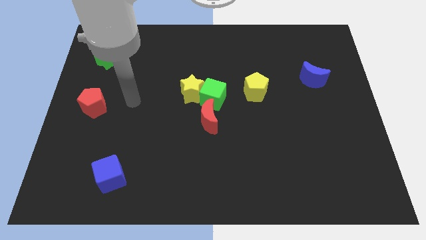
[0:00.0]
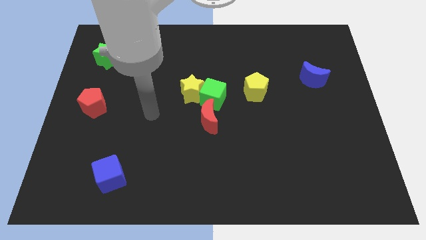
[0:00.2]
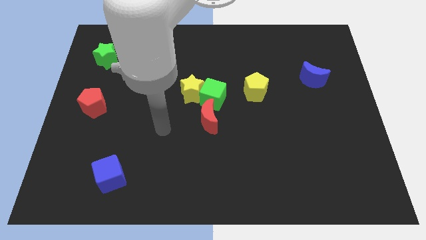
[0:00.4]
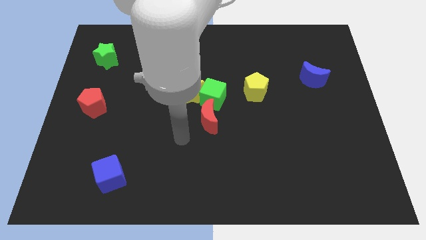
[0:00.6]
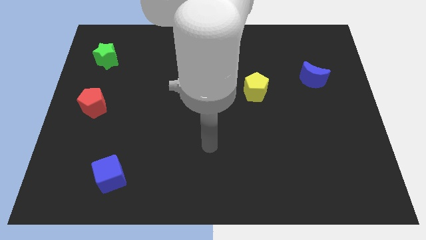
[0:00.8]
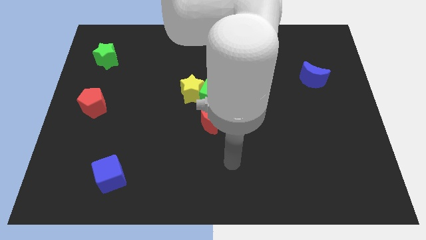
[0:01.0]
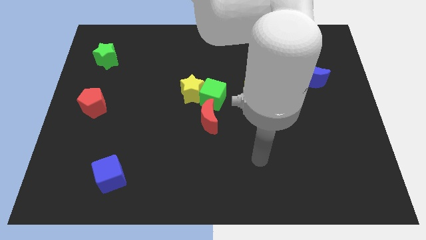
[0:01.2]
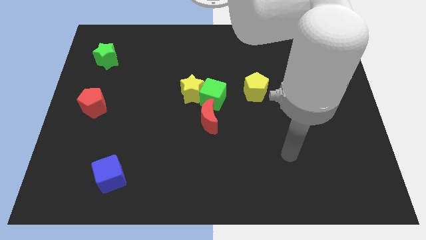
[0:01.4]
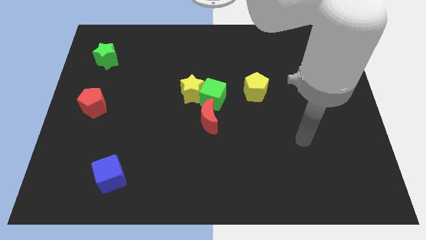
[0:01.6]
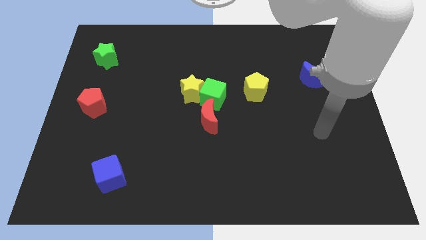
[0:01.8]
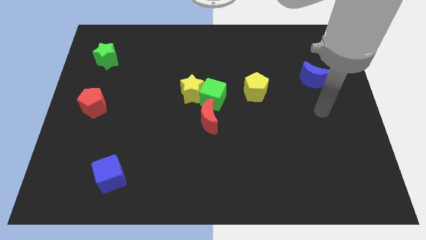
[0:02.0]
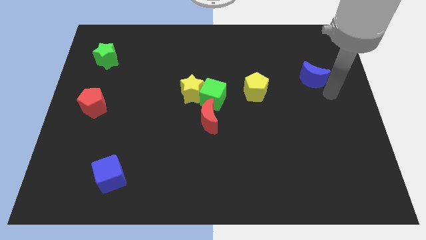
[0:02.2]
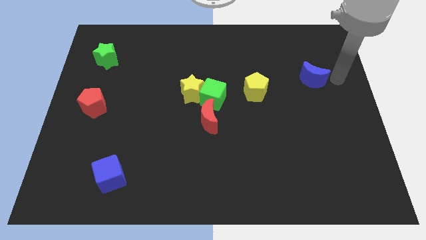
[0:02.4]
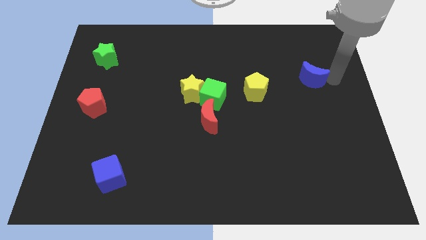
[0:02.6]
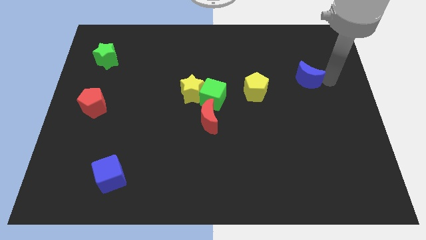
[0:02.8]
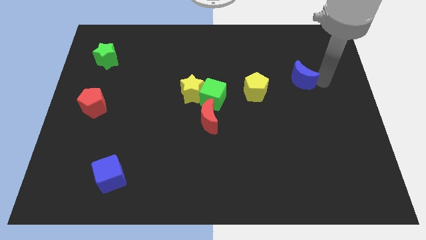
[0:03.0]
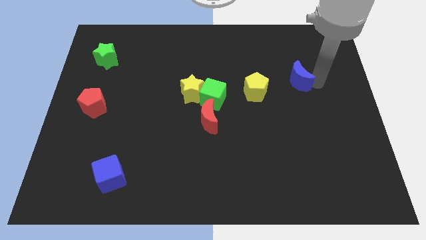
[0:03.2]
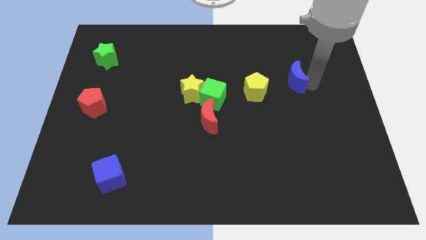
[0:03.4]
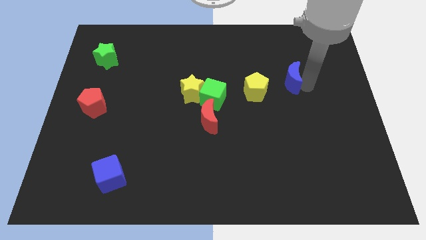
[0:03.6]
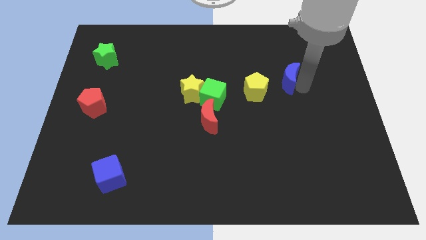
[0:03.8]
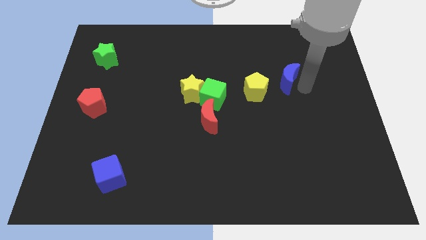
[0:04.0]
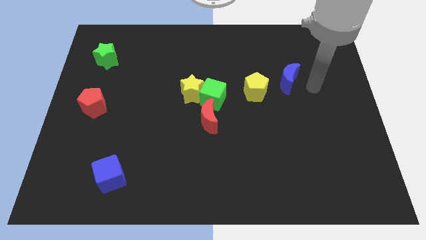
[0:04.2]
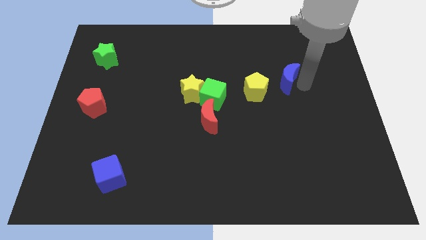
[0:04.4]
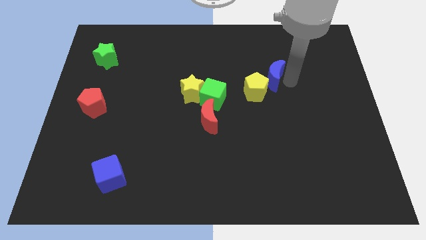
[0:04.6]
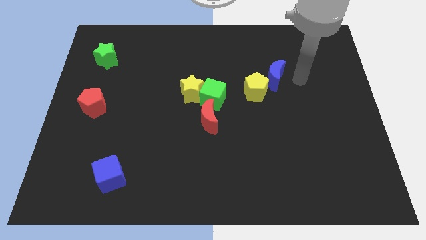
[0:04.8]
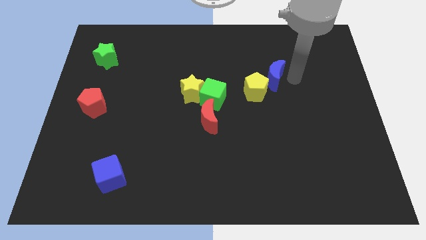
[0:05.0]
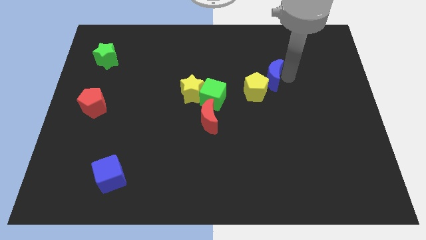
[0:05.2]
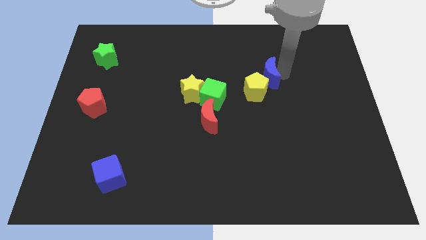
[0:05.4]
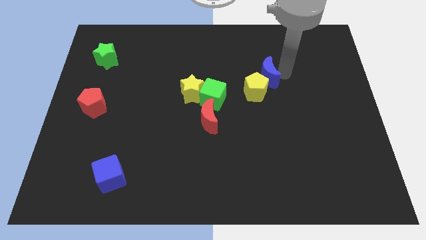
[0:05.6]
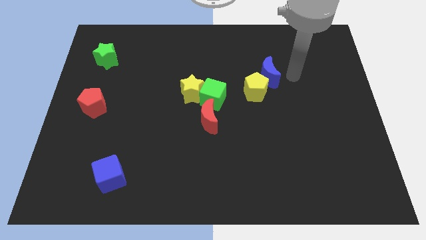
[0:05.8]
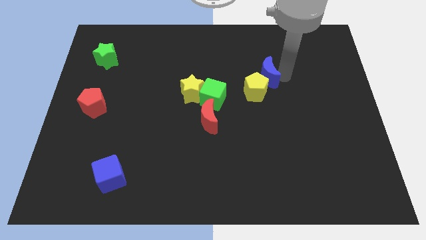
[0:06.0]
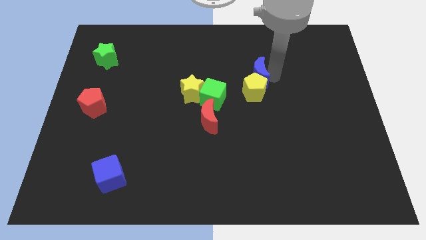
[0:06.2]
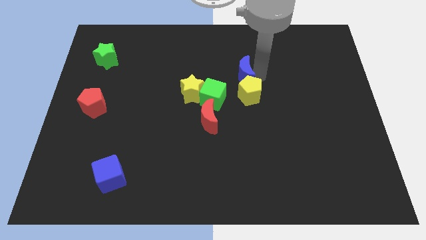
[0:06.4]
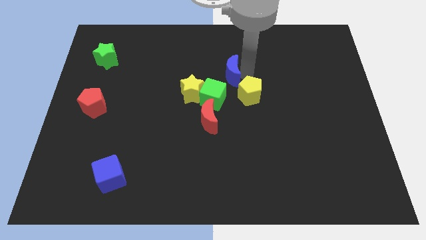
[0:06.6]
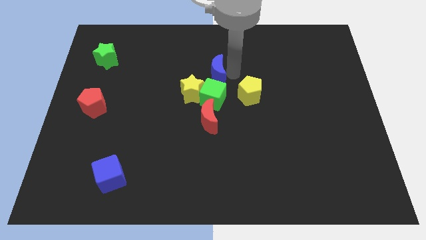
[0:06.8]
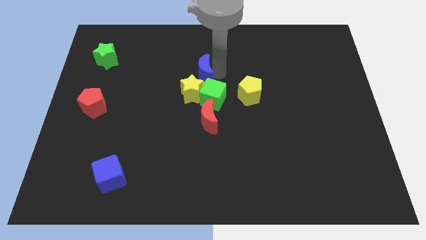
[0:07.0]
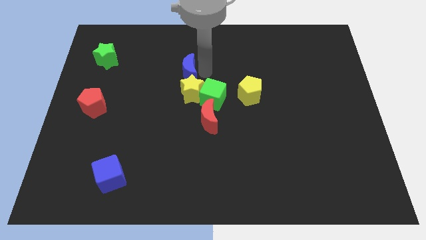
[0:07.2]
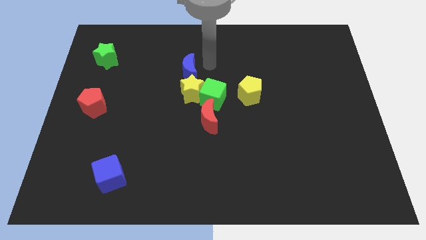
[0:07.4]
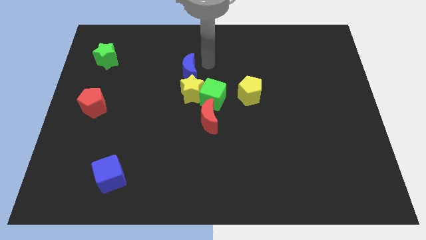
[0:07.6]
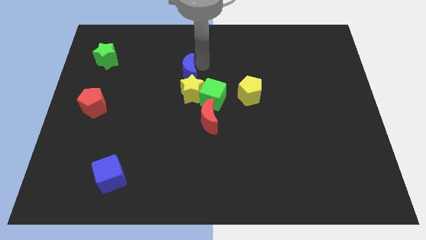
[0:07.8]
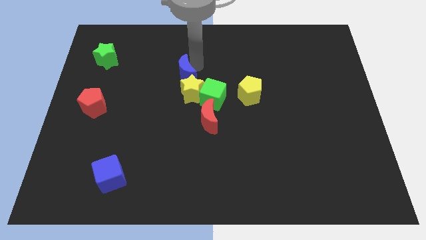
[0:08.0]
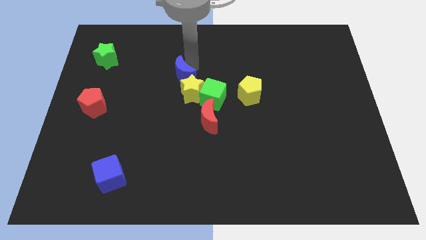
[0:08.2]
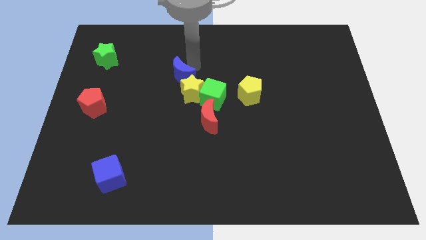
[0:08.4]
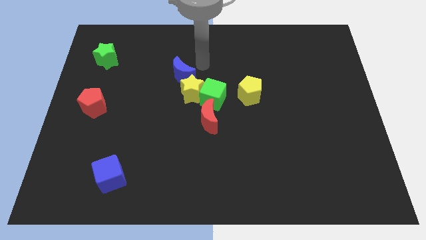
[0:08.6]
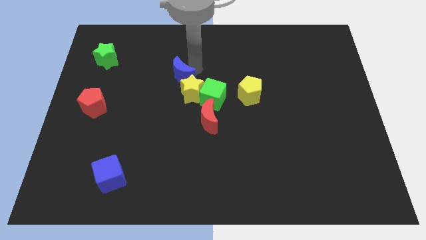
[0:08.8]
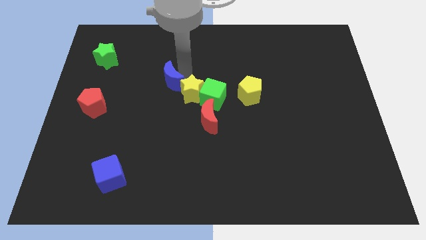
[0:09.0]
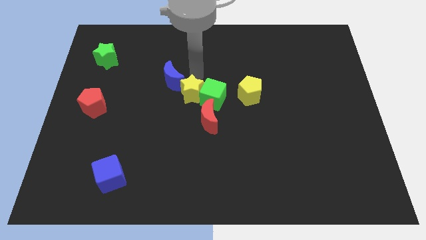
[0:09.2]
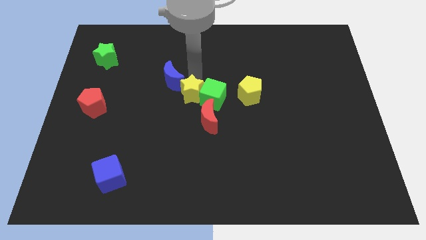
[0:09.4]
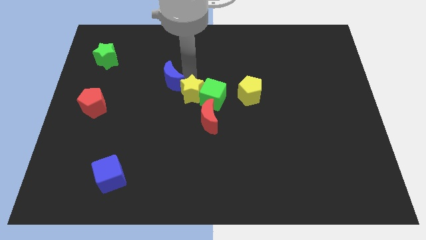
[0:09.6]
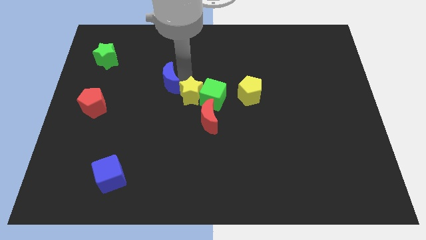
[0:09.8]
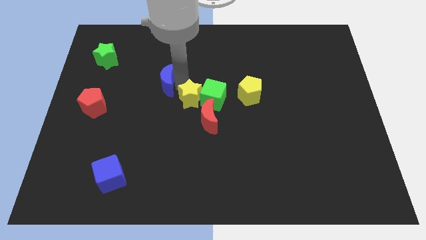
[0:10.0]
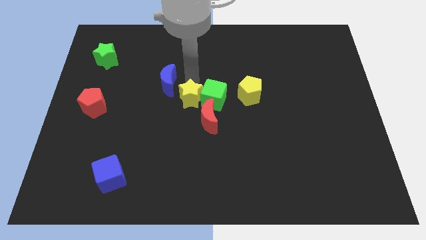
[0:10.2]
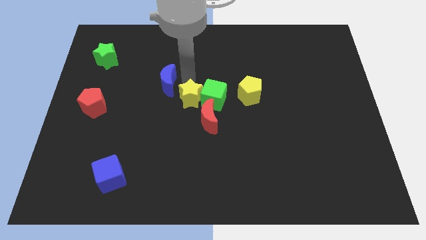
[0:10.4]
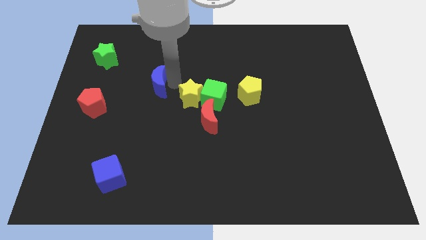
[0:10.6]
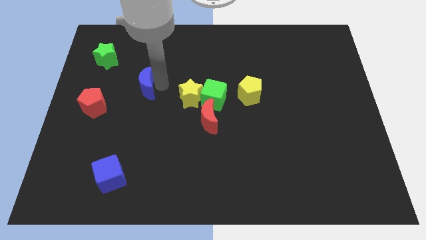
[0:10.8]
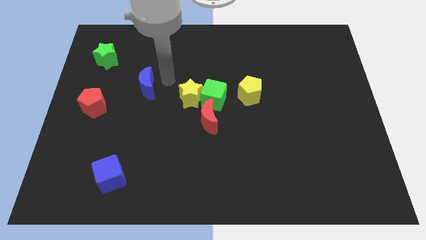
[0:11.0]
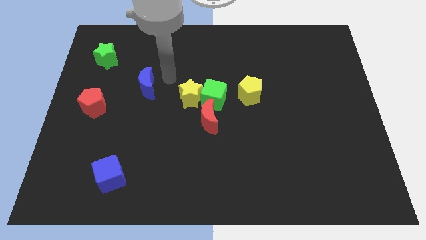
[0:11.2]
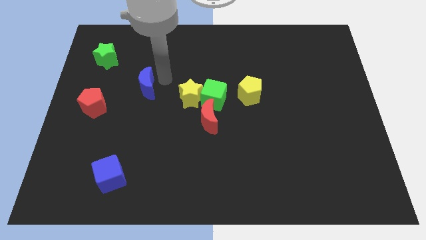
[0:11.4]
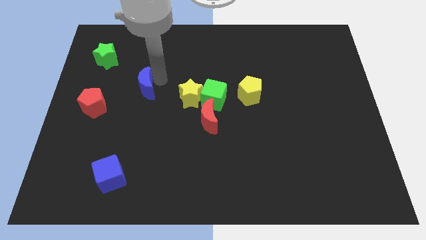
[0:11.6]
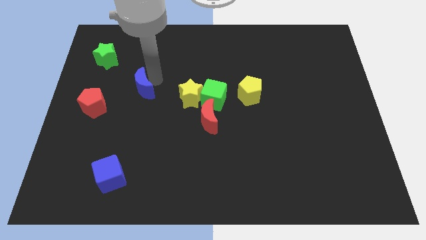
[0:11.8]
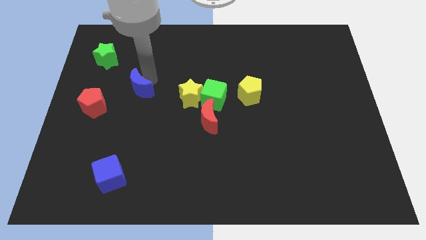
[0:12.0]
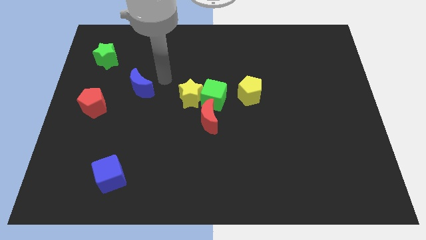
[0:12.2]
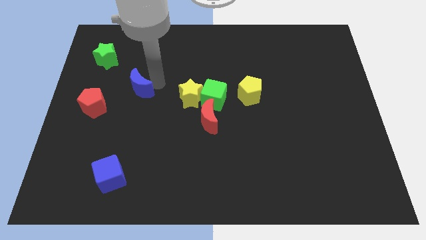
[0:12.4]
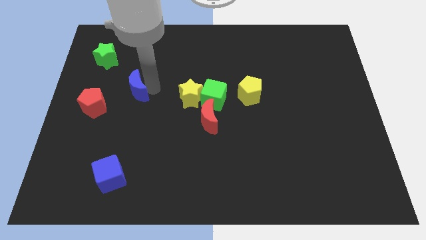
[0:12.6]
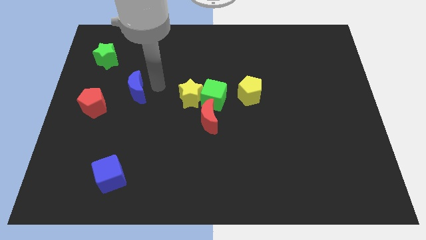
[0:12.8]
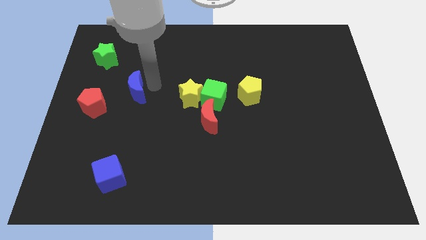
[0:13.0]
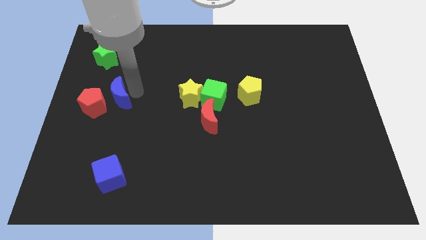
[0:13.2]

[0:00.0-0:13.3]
move the blue moon to the red pentagon
